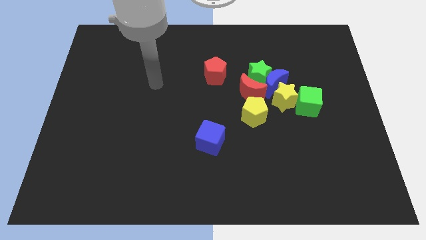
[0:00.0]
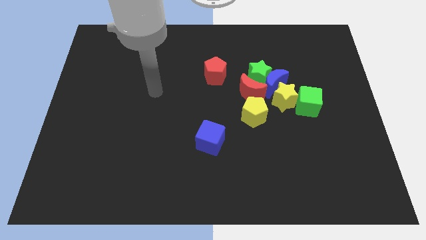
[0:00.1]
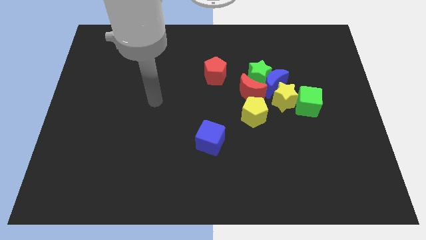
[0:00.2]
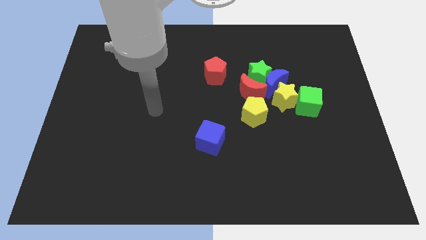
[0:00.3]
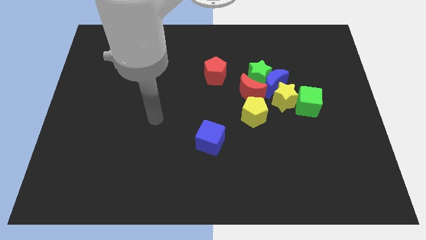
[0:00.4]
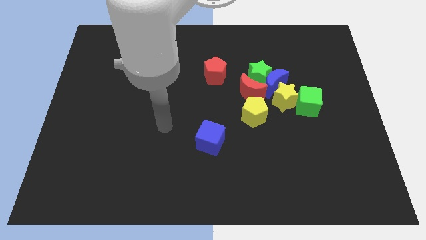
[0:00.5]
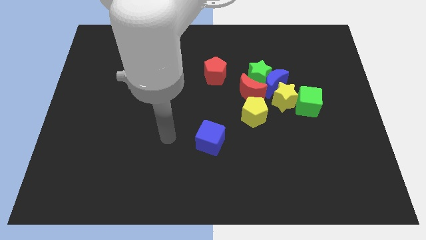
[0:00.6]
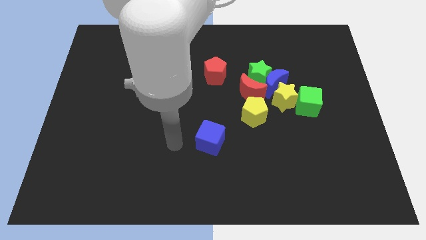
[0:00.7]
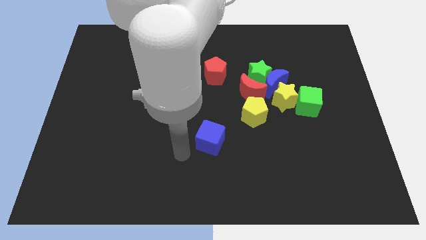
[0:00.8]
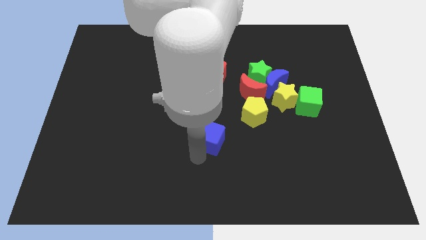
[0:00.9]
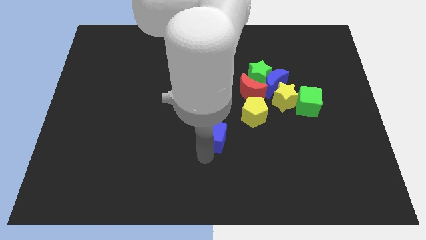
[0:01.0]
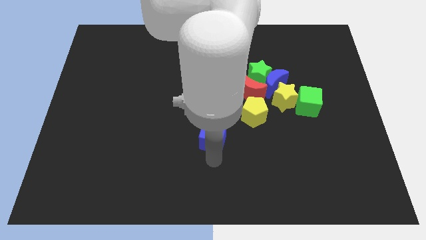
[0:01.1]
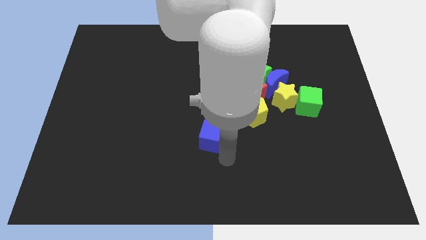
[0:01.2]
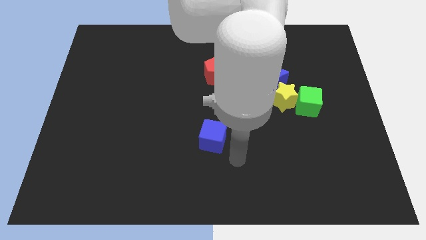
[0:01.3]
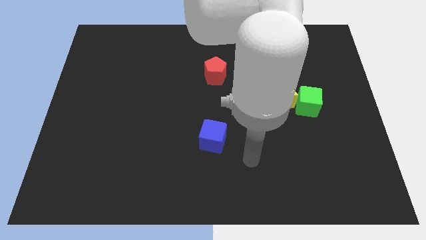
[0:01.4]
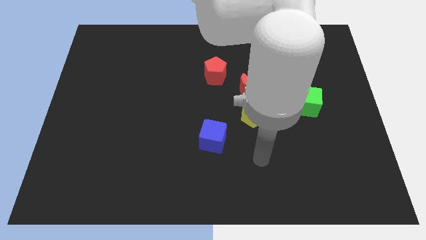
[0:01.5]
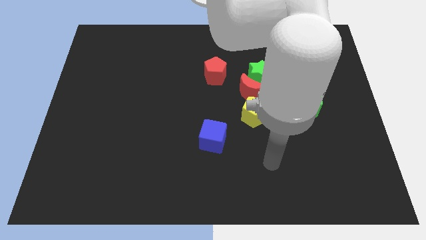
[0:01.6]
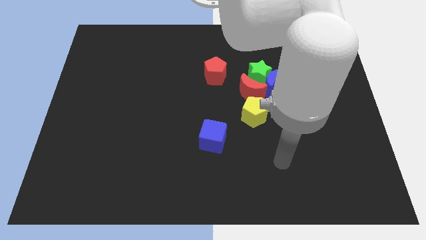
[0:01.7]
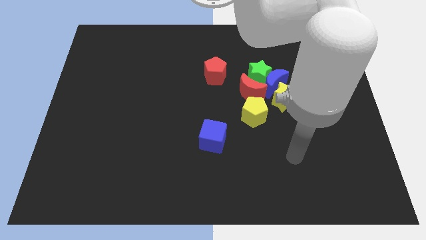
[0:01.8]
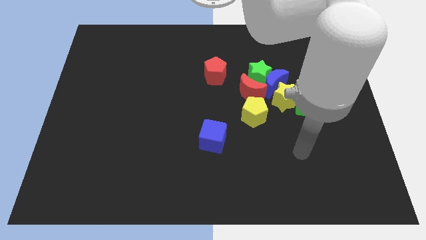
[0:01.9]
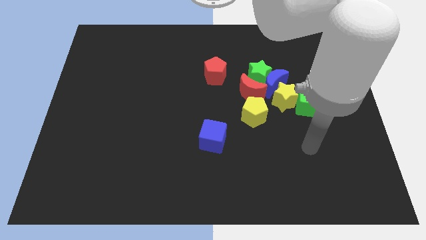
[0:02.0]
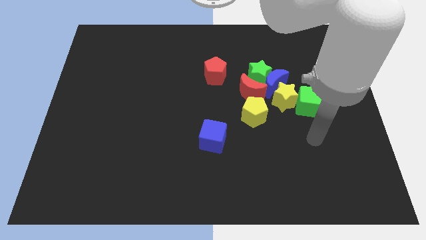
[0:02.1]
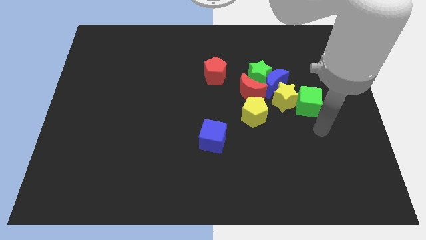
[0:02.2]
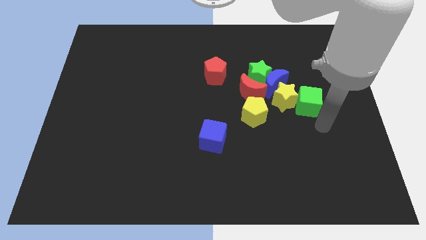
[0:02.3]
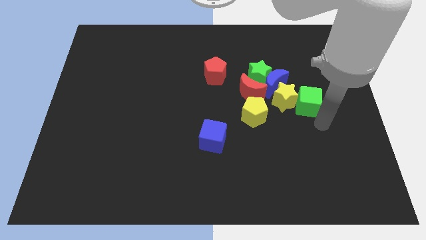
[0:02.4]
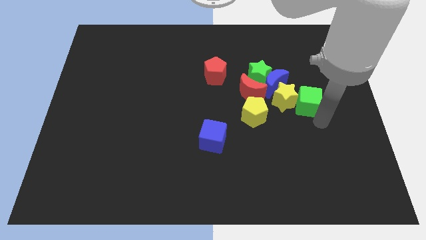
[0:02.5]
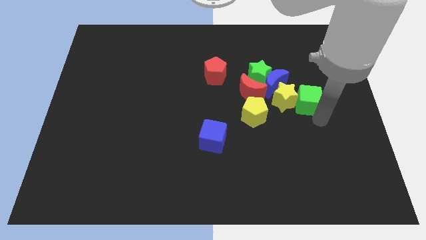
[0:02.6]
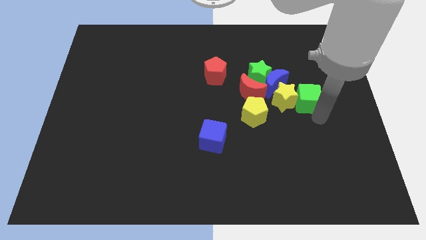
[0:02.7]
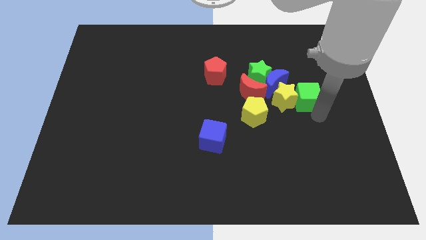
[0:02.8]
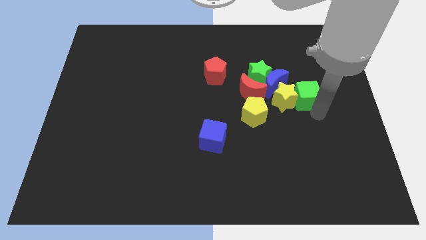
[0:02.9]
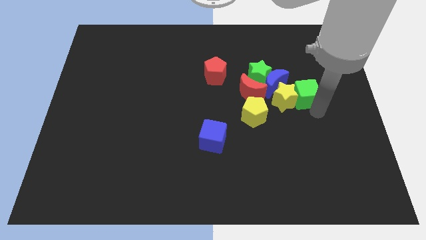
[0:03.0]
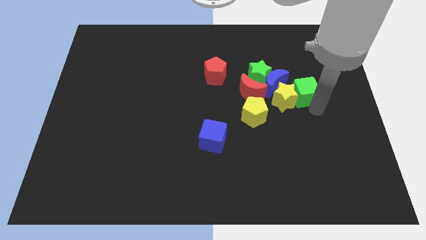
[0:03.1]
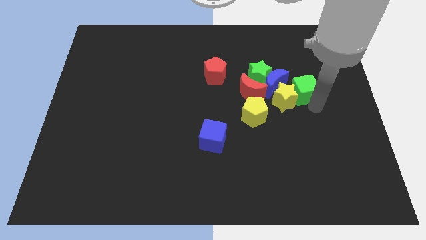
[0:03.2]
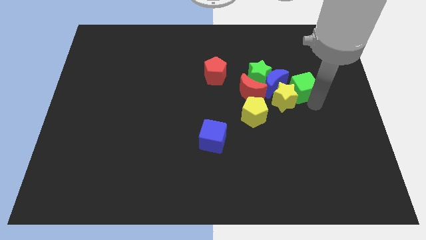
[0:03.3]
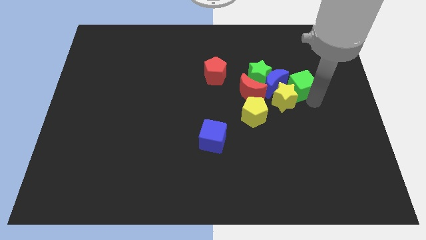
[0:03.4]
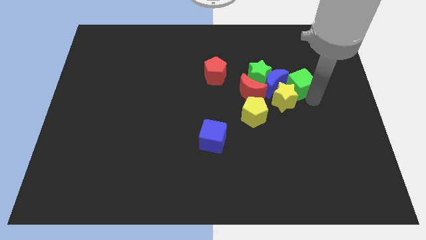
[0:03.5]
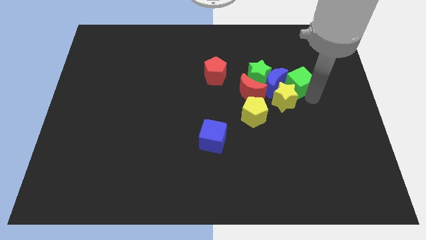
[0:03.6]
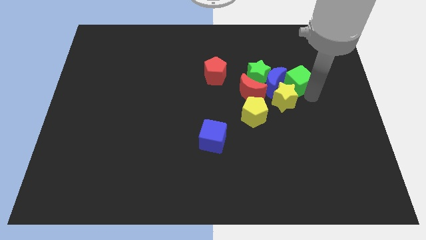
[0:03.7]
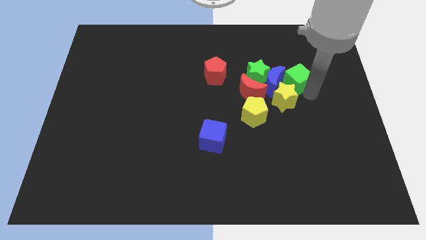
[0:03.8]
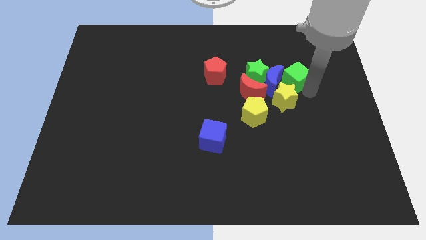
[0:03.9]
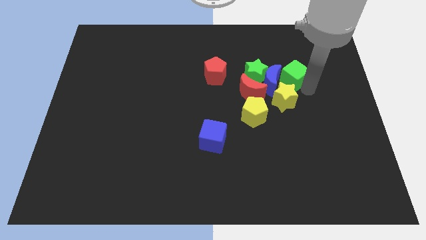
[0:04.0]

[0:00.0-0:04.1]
slightly slide the green cube upwards and then left

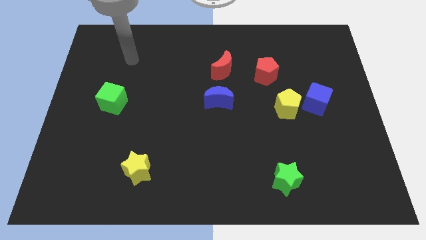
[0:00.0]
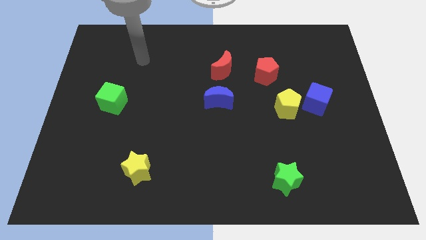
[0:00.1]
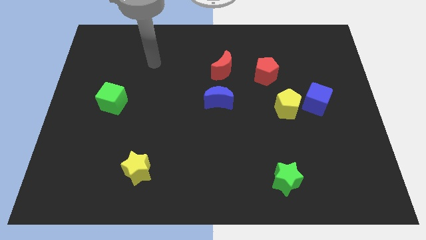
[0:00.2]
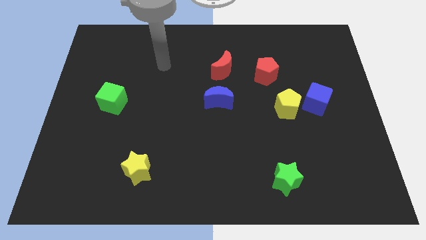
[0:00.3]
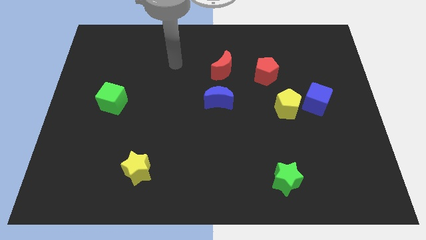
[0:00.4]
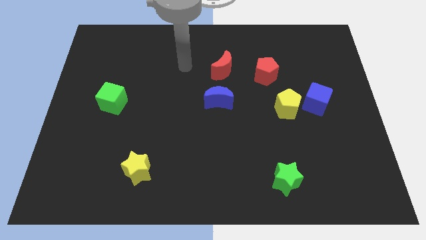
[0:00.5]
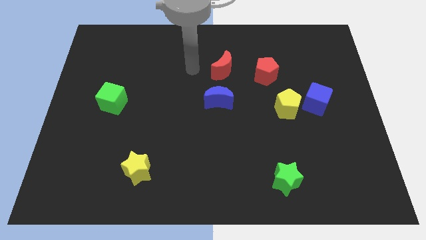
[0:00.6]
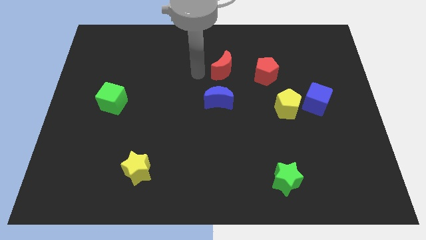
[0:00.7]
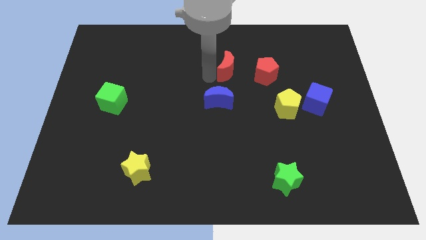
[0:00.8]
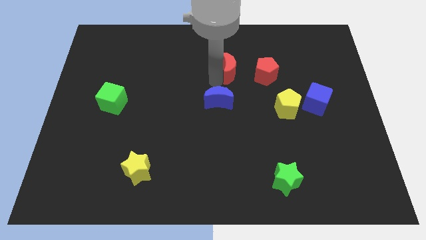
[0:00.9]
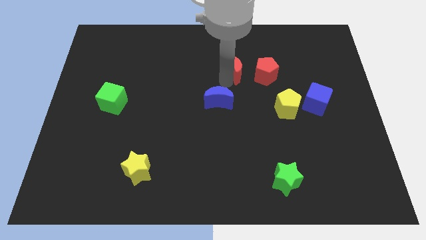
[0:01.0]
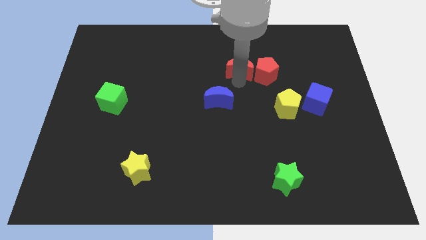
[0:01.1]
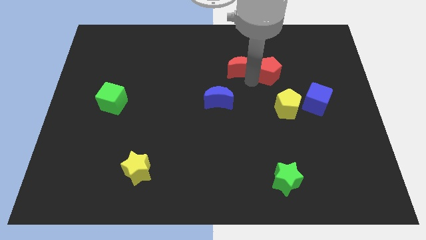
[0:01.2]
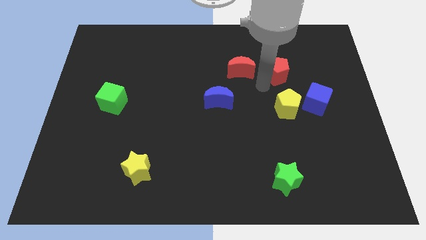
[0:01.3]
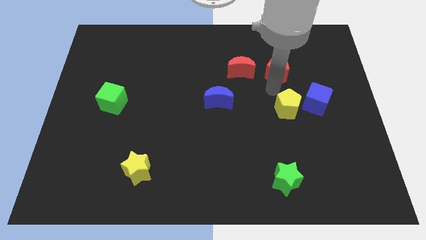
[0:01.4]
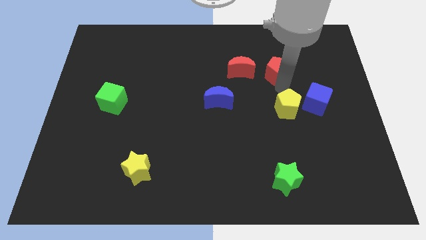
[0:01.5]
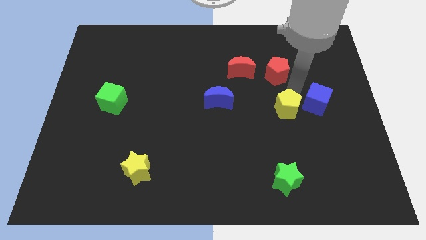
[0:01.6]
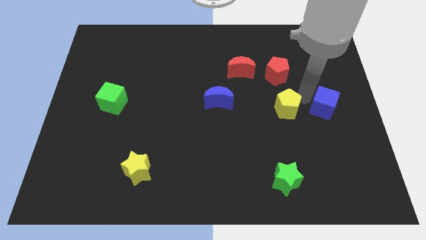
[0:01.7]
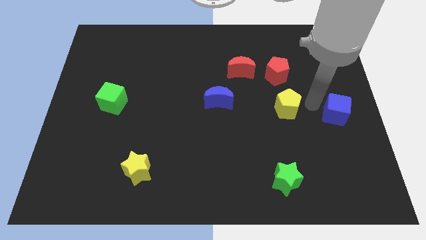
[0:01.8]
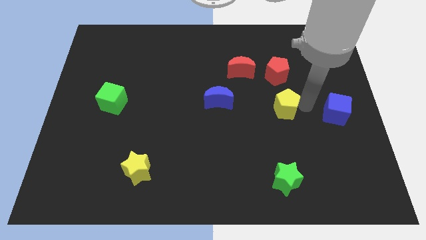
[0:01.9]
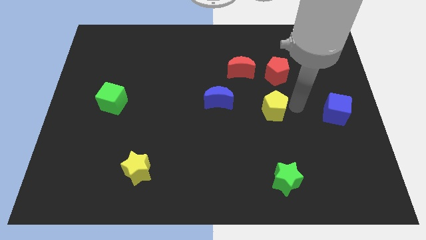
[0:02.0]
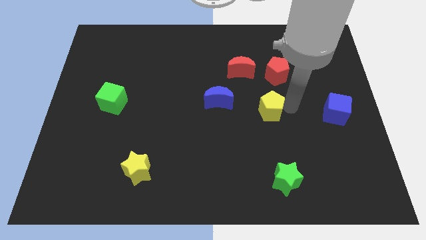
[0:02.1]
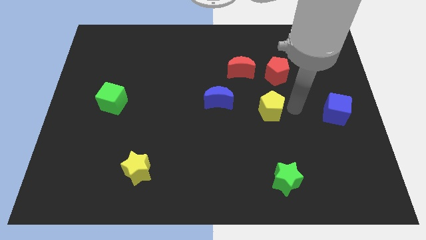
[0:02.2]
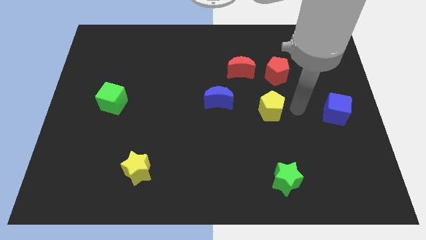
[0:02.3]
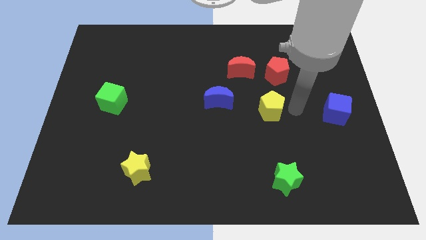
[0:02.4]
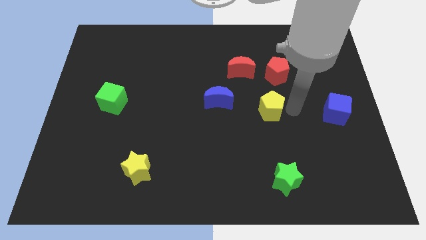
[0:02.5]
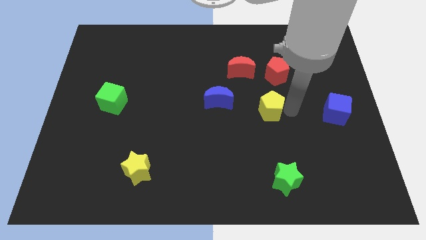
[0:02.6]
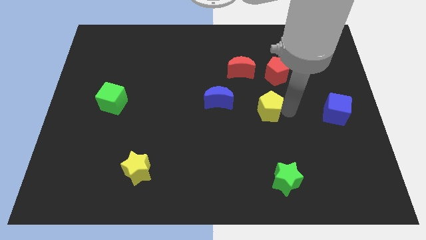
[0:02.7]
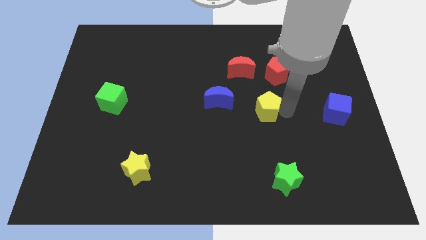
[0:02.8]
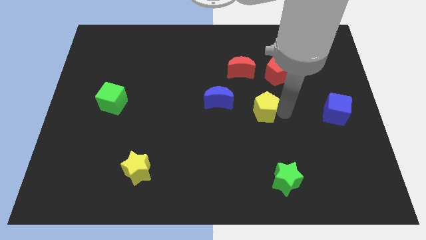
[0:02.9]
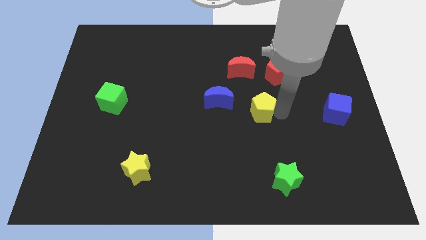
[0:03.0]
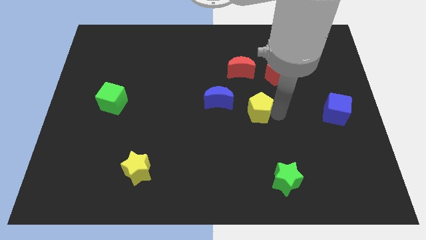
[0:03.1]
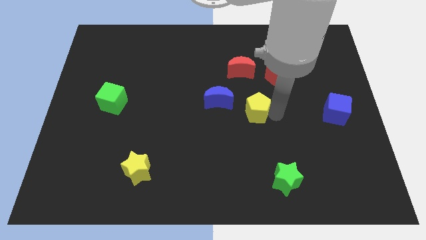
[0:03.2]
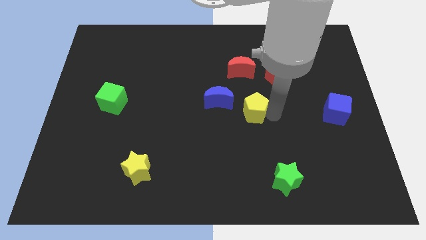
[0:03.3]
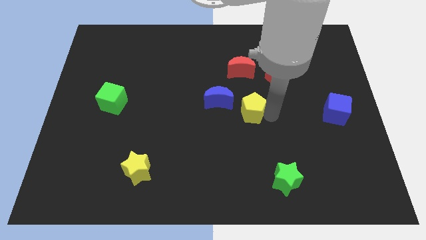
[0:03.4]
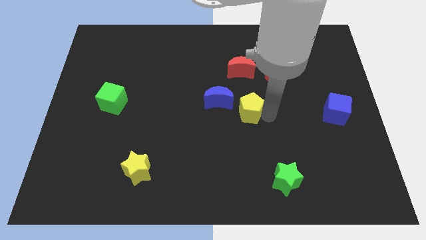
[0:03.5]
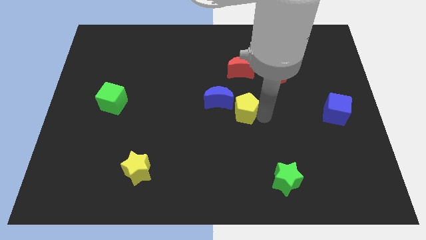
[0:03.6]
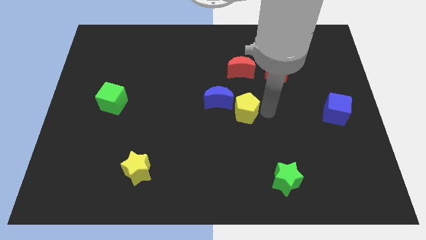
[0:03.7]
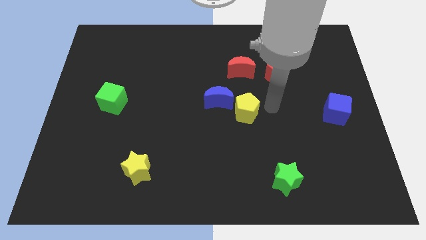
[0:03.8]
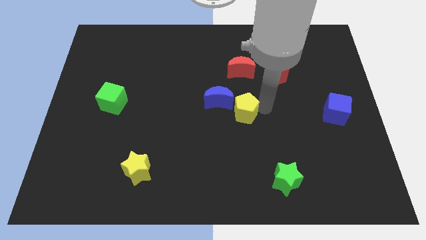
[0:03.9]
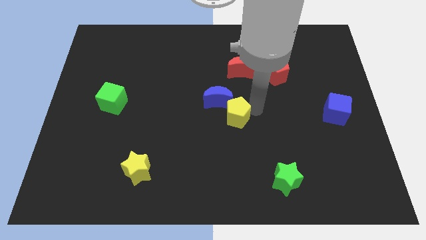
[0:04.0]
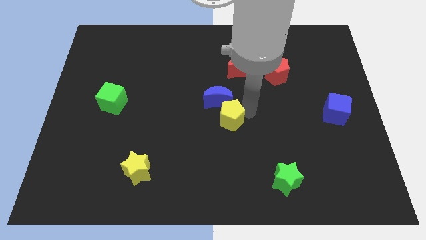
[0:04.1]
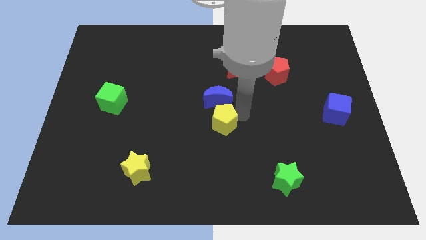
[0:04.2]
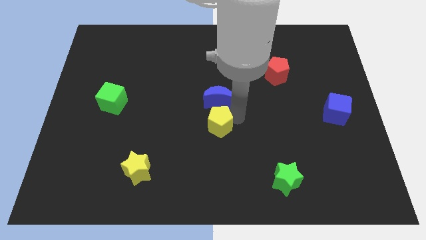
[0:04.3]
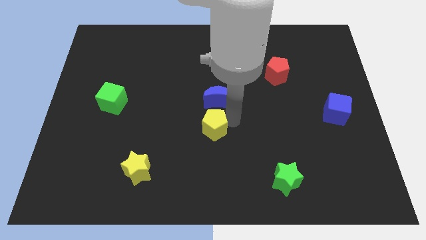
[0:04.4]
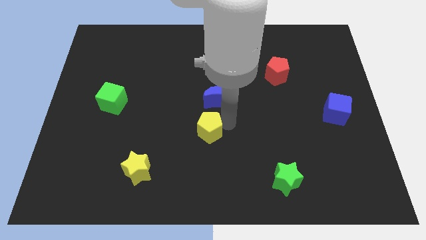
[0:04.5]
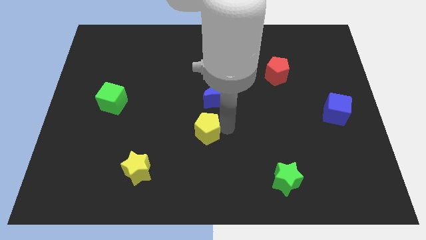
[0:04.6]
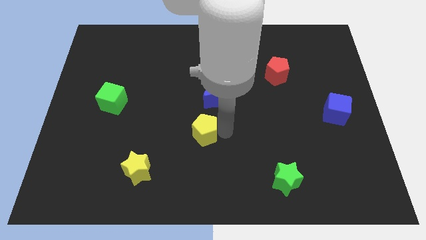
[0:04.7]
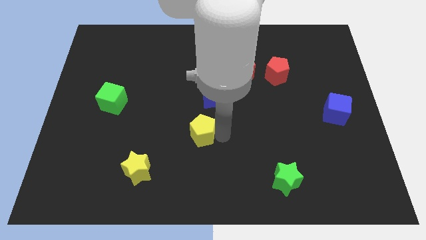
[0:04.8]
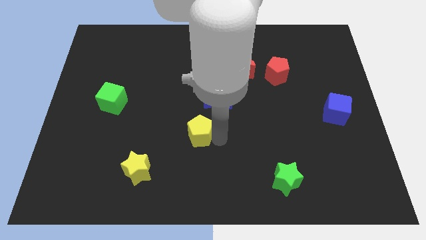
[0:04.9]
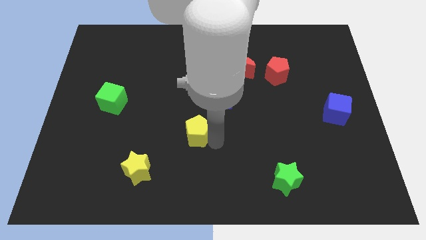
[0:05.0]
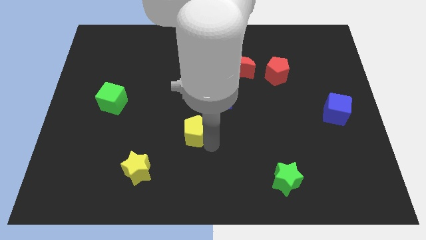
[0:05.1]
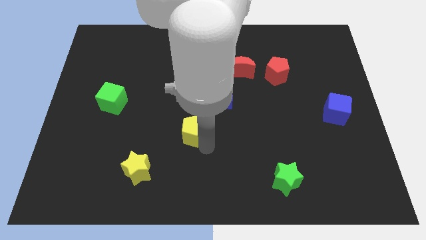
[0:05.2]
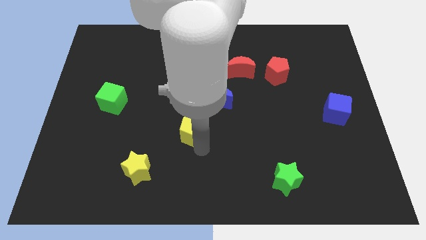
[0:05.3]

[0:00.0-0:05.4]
move the yellow pentagon to the left
